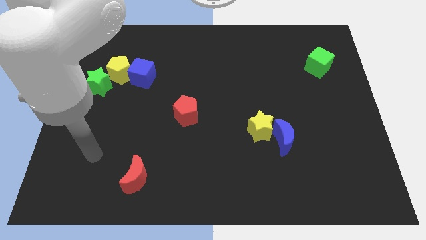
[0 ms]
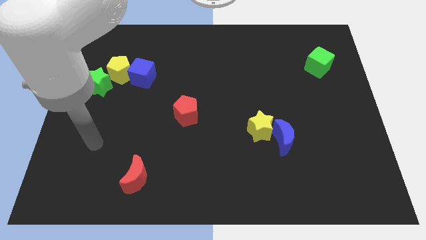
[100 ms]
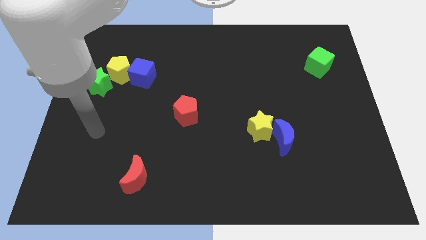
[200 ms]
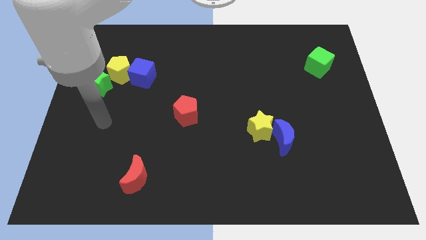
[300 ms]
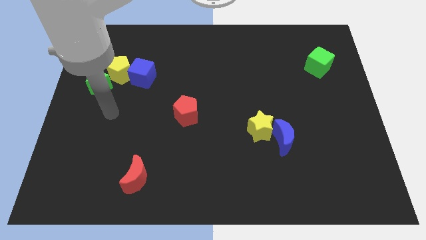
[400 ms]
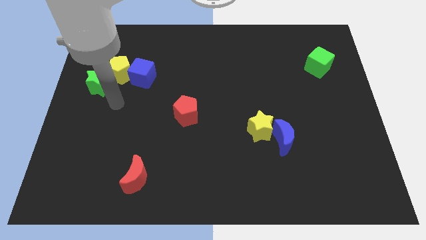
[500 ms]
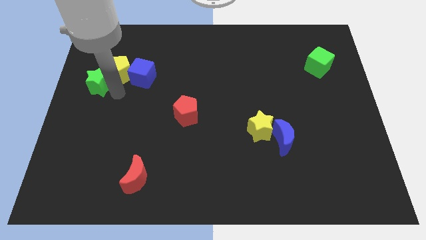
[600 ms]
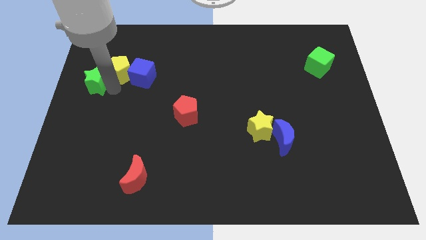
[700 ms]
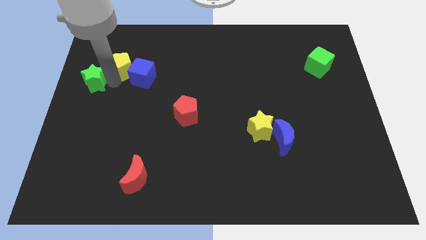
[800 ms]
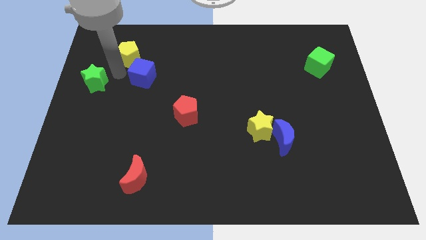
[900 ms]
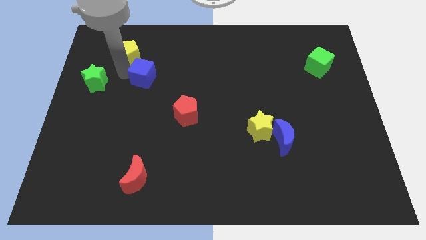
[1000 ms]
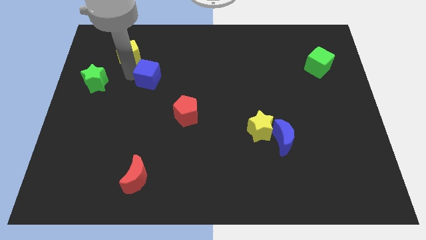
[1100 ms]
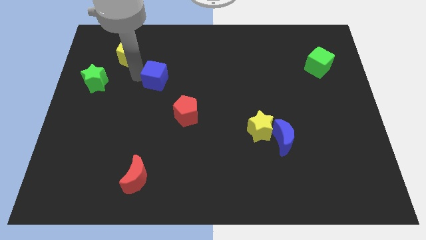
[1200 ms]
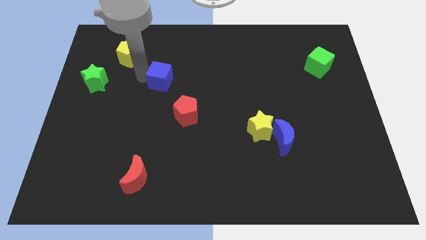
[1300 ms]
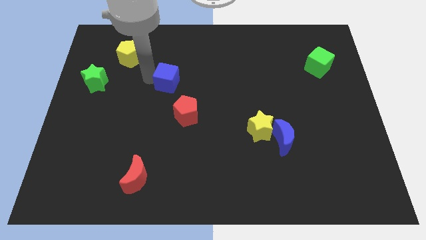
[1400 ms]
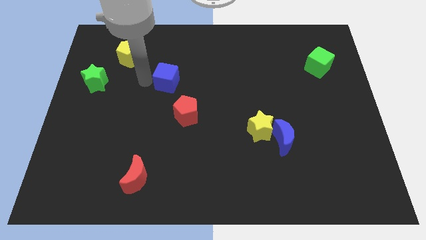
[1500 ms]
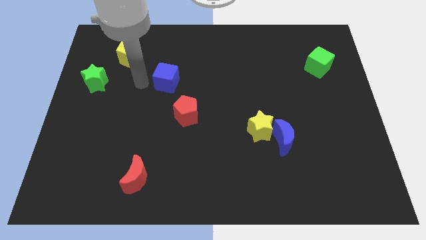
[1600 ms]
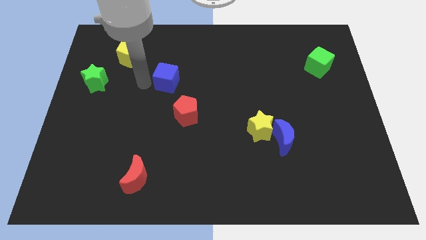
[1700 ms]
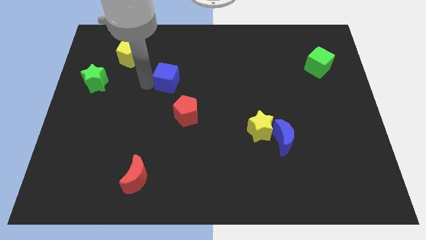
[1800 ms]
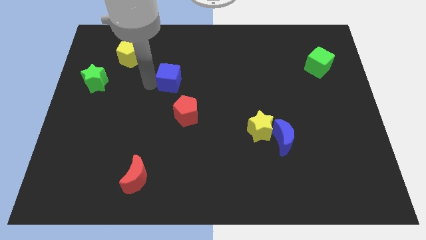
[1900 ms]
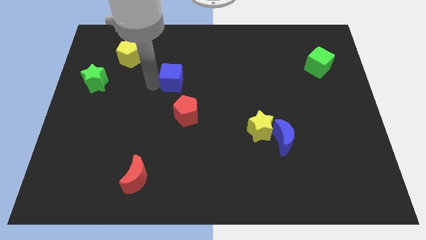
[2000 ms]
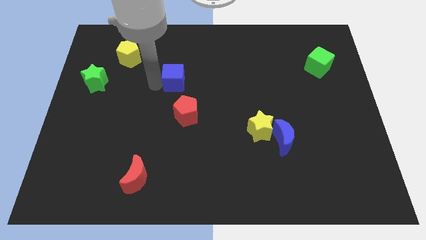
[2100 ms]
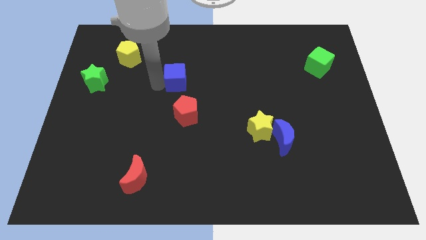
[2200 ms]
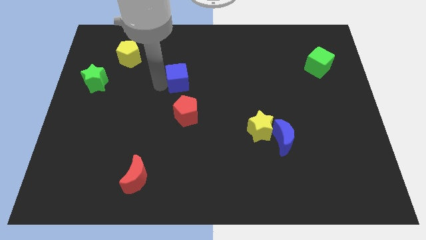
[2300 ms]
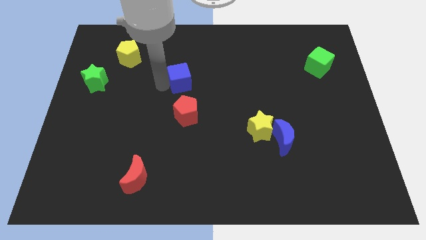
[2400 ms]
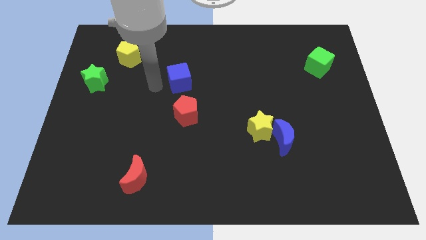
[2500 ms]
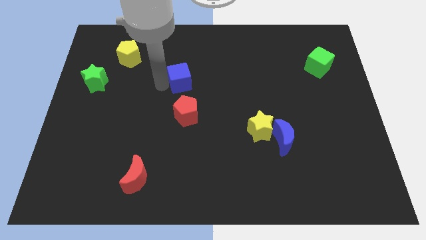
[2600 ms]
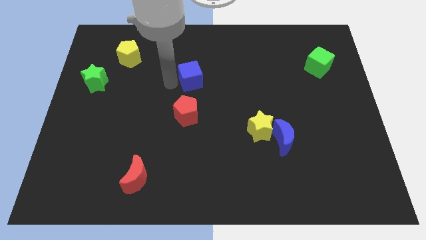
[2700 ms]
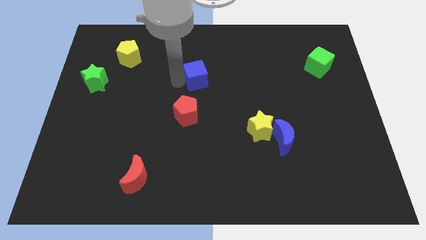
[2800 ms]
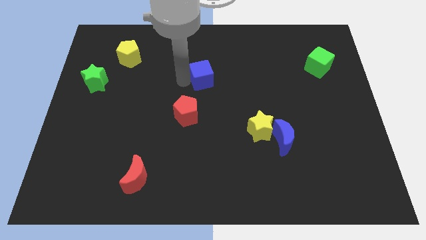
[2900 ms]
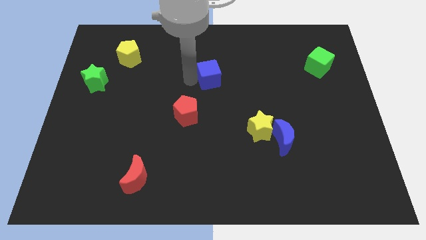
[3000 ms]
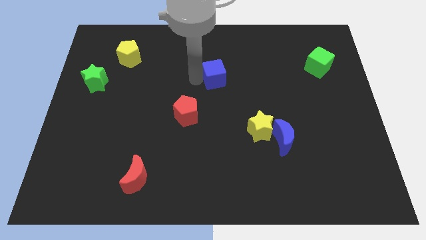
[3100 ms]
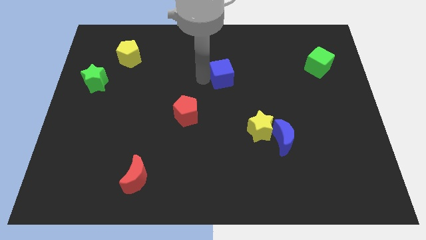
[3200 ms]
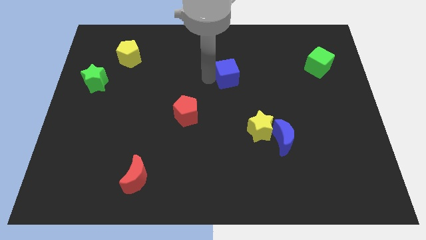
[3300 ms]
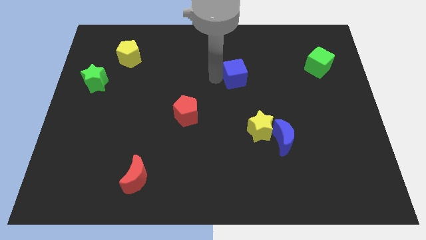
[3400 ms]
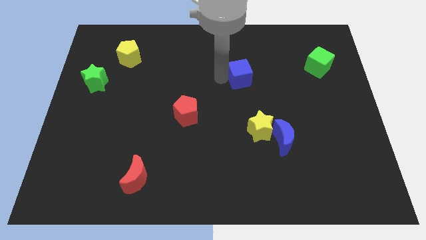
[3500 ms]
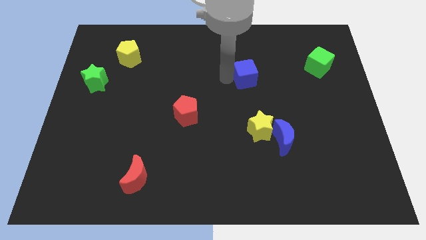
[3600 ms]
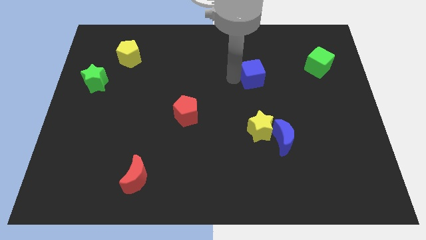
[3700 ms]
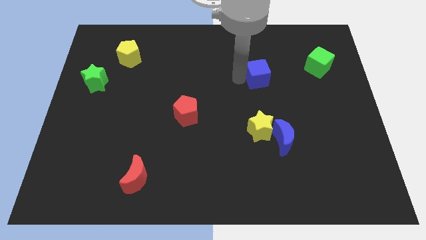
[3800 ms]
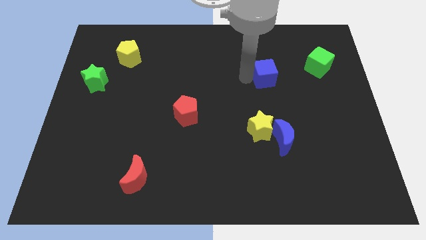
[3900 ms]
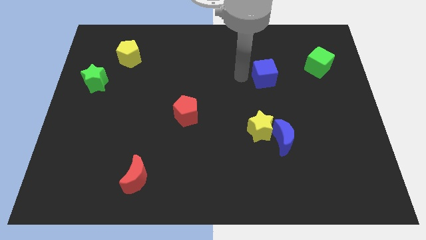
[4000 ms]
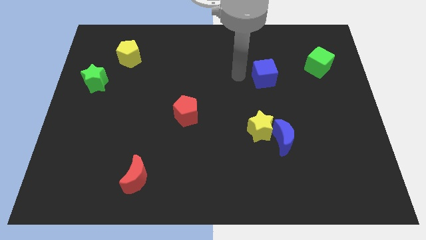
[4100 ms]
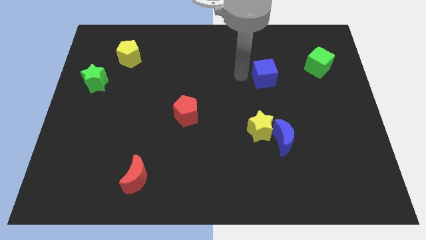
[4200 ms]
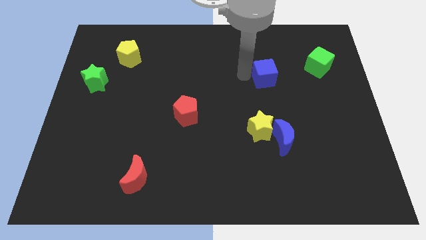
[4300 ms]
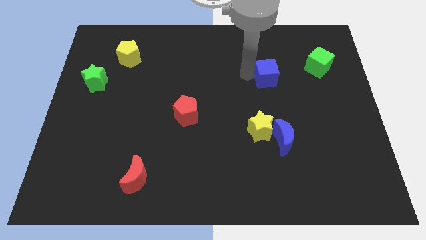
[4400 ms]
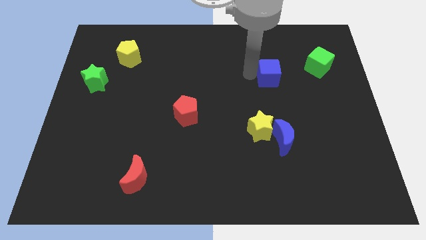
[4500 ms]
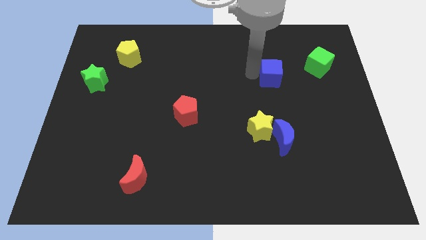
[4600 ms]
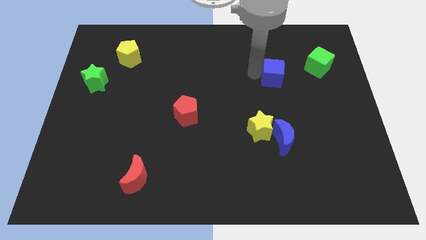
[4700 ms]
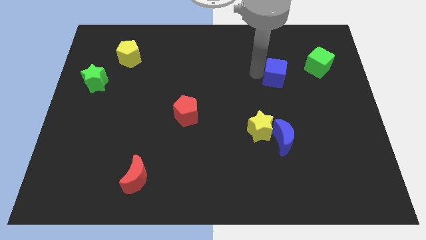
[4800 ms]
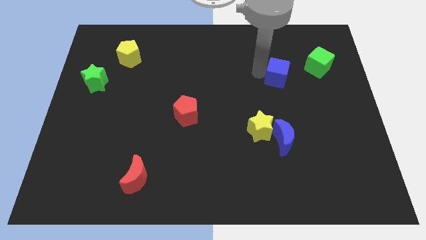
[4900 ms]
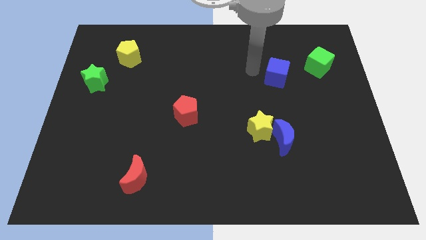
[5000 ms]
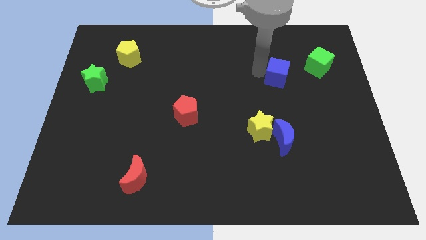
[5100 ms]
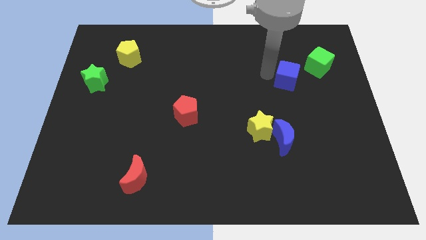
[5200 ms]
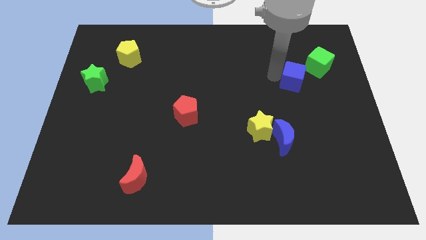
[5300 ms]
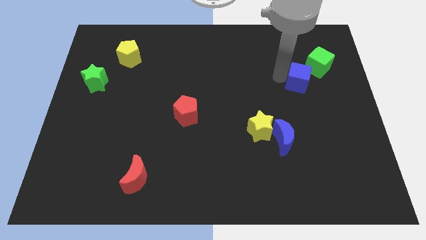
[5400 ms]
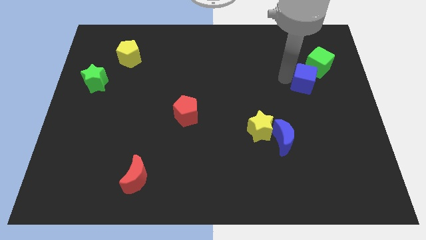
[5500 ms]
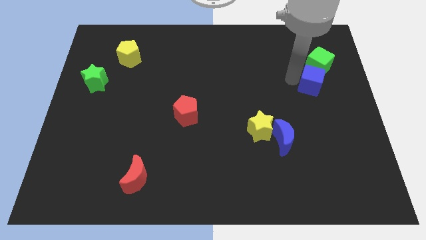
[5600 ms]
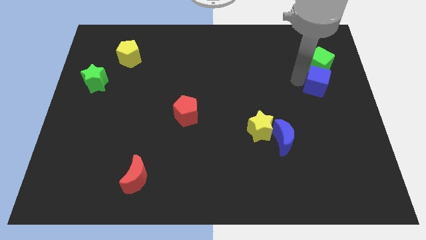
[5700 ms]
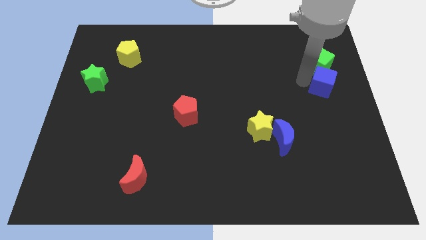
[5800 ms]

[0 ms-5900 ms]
slide the blue cube to the right side of the board

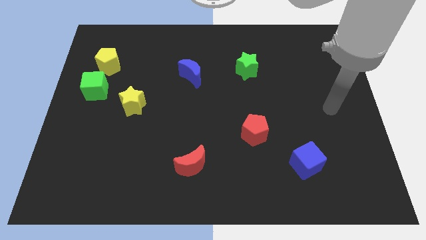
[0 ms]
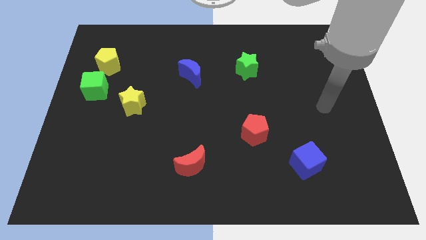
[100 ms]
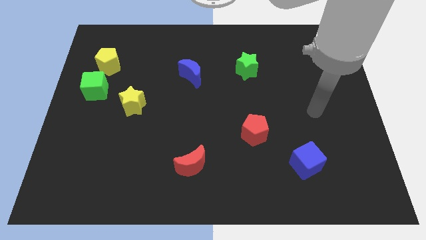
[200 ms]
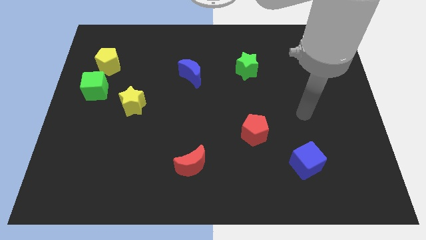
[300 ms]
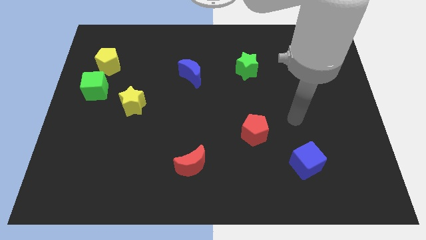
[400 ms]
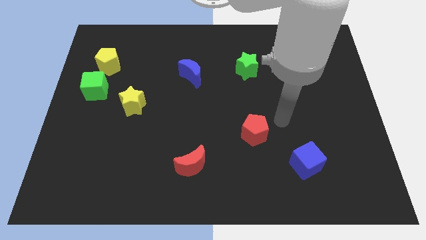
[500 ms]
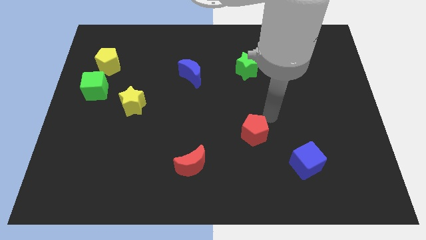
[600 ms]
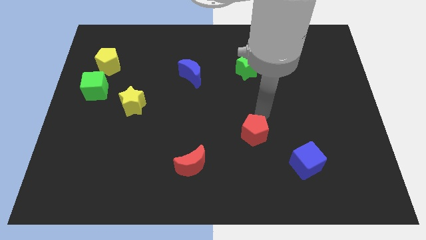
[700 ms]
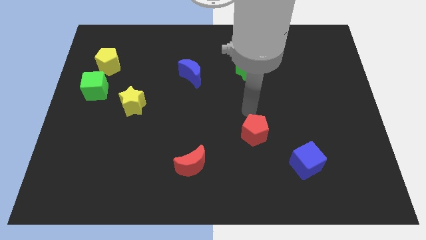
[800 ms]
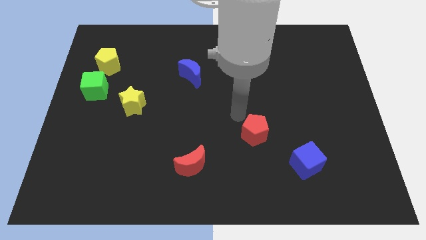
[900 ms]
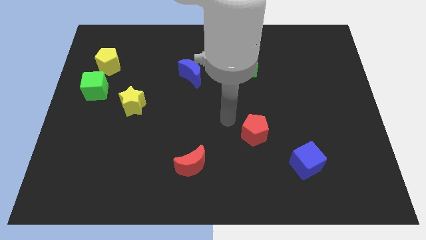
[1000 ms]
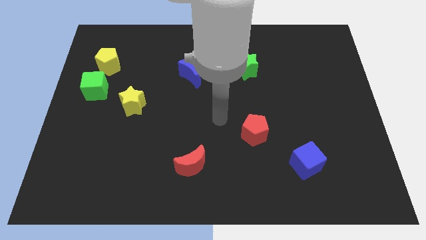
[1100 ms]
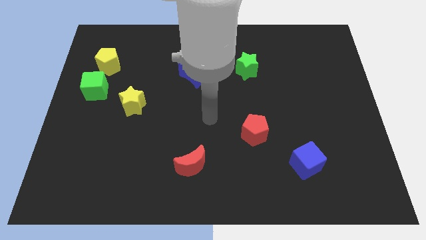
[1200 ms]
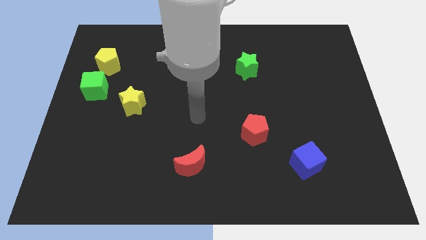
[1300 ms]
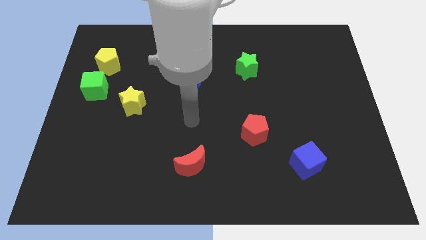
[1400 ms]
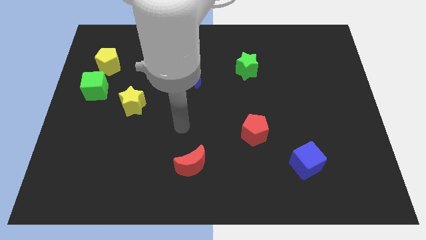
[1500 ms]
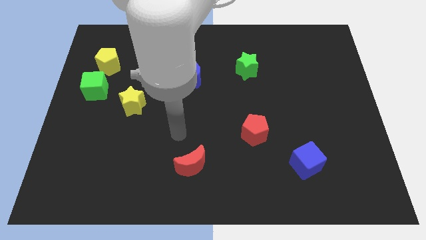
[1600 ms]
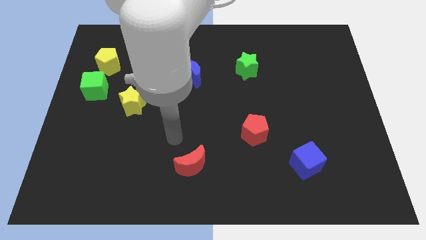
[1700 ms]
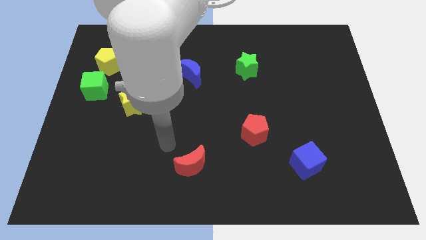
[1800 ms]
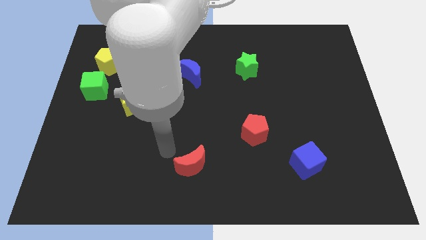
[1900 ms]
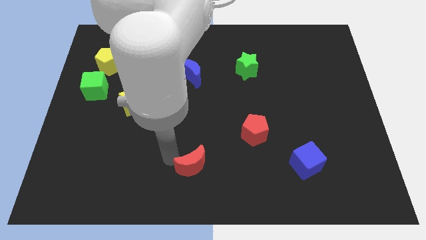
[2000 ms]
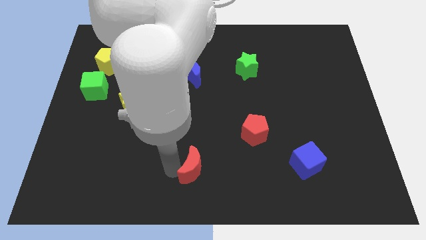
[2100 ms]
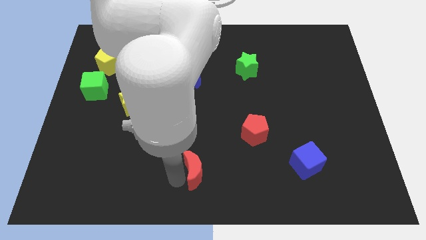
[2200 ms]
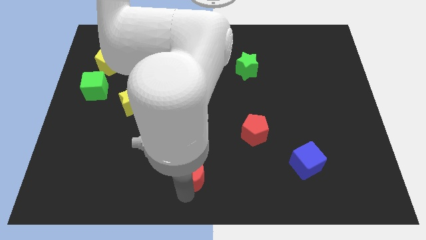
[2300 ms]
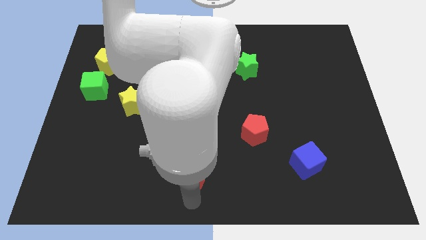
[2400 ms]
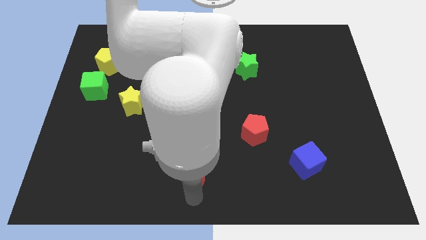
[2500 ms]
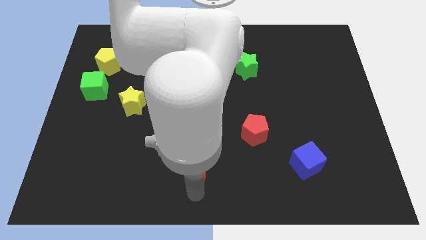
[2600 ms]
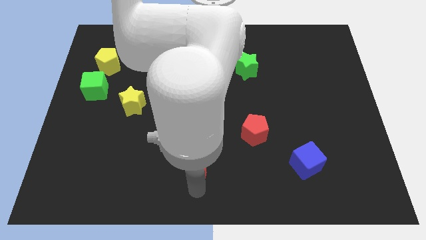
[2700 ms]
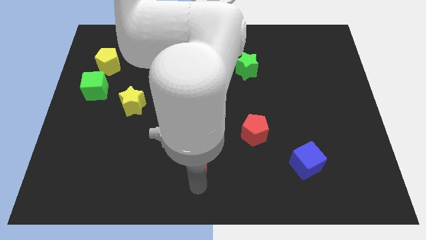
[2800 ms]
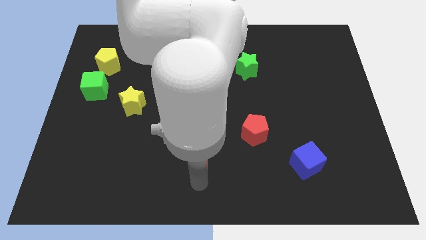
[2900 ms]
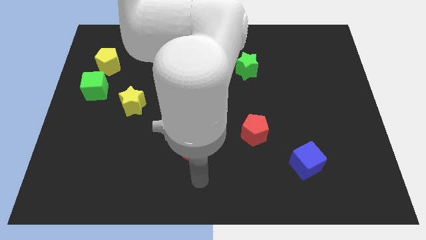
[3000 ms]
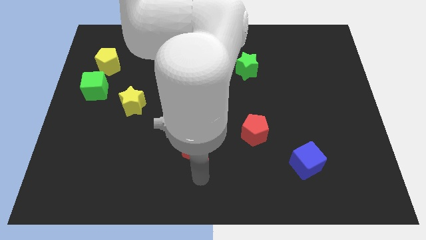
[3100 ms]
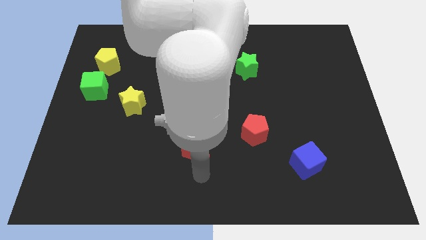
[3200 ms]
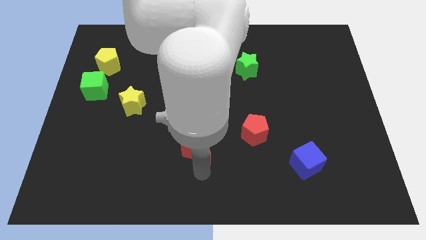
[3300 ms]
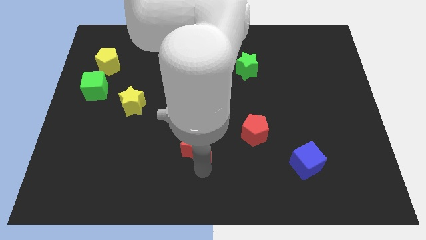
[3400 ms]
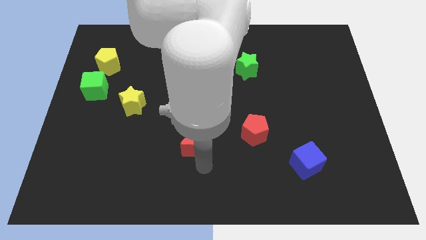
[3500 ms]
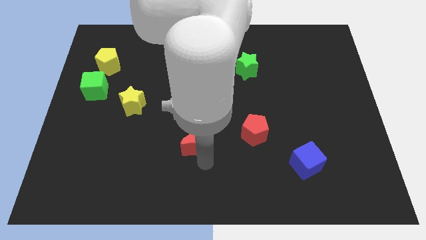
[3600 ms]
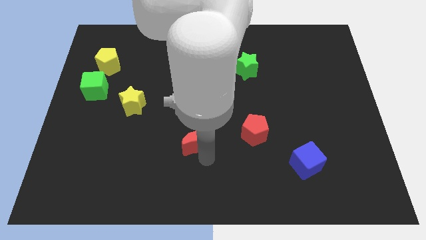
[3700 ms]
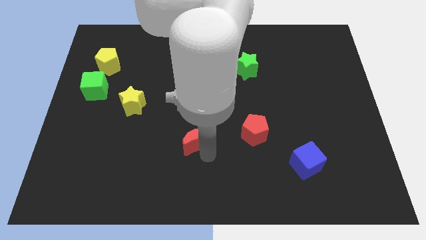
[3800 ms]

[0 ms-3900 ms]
put the red moon to the middle
